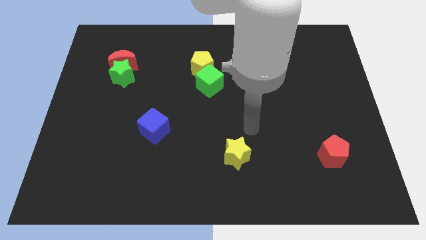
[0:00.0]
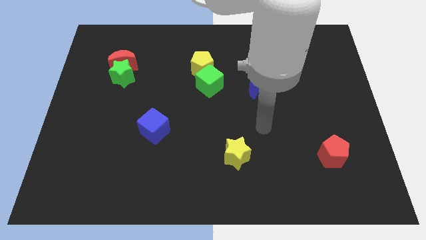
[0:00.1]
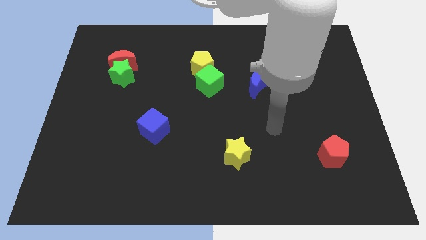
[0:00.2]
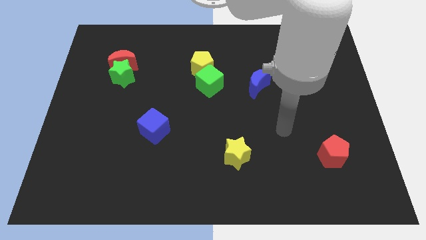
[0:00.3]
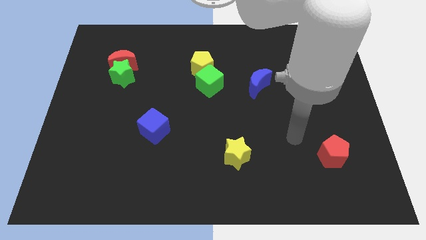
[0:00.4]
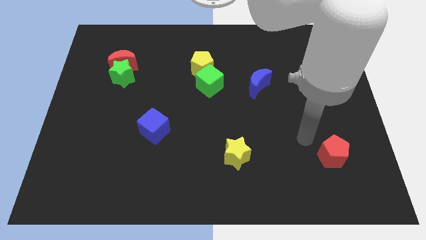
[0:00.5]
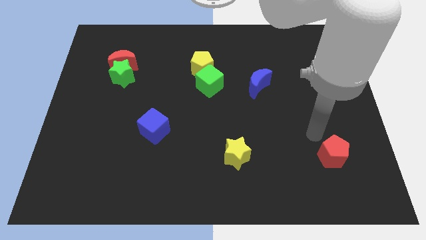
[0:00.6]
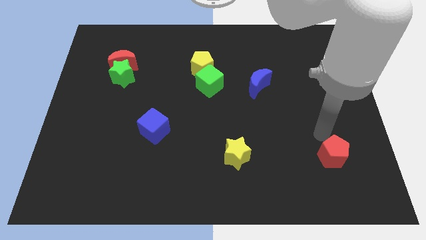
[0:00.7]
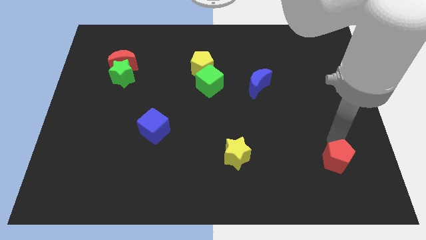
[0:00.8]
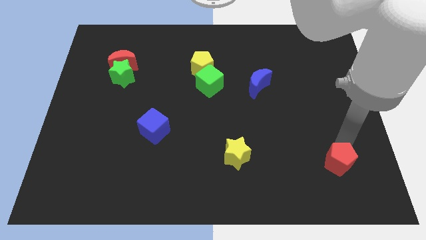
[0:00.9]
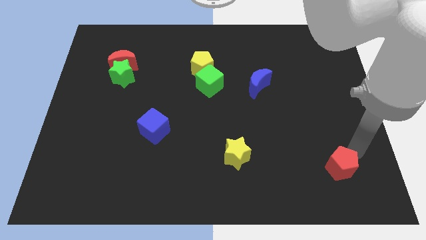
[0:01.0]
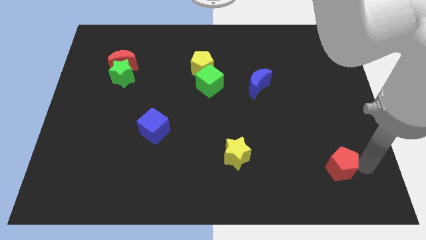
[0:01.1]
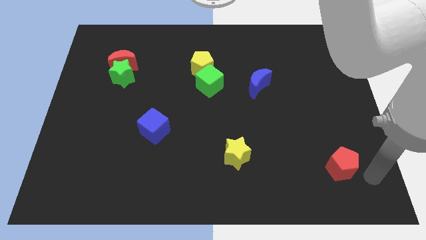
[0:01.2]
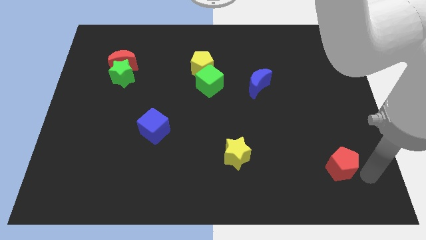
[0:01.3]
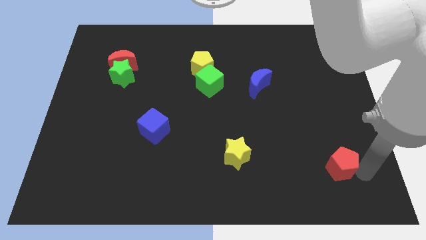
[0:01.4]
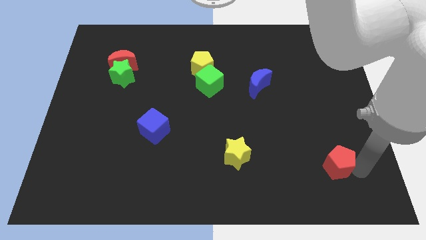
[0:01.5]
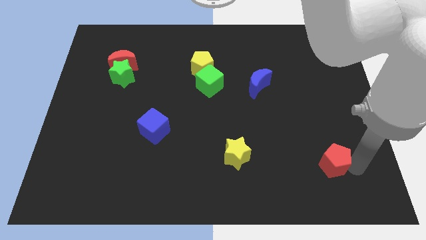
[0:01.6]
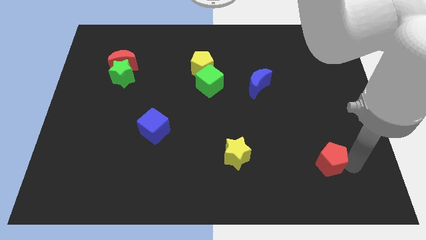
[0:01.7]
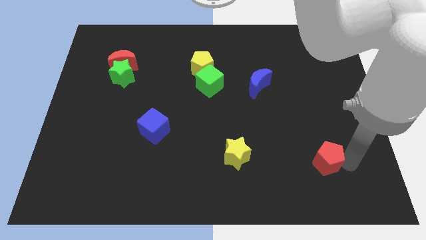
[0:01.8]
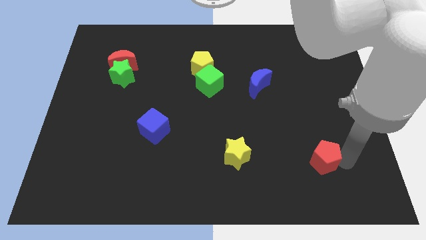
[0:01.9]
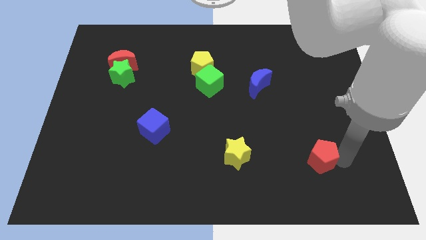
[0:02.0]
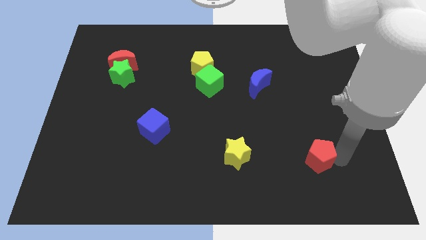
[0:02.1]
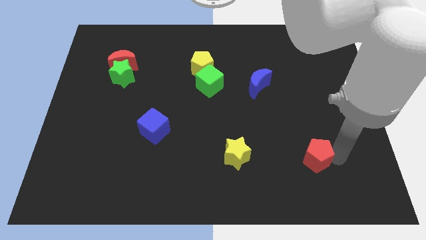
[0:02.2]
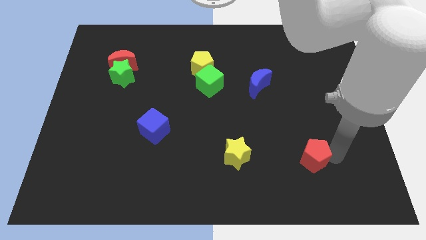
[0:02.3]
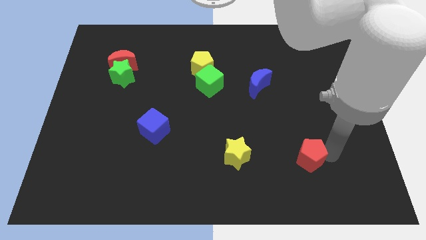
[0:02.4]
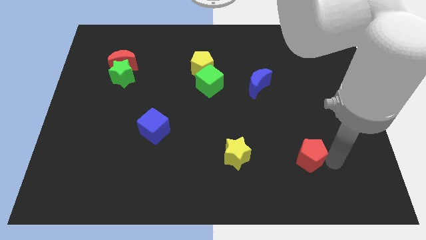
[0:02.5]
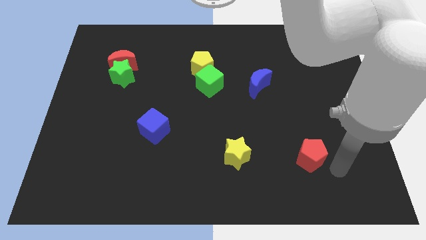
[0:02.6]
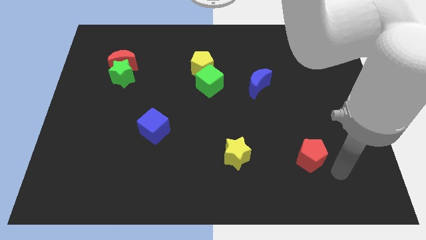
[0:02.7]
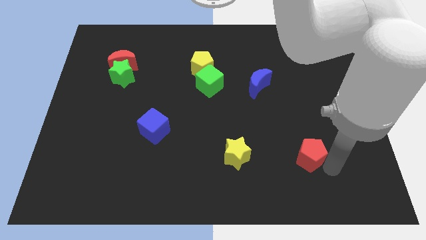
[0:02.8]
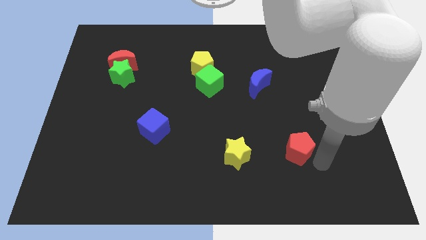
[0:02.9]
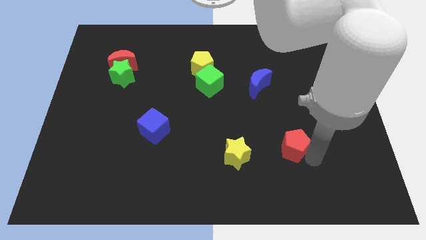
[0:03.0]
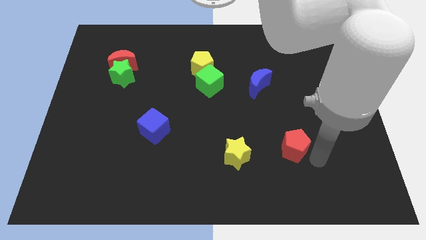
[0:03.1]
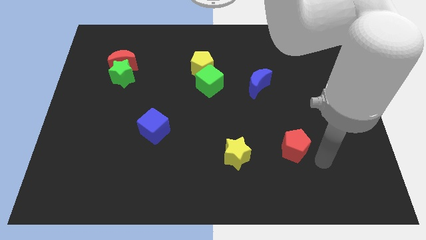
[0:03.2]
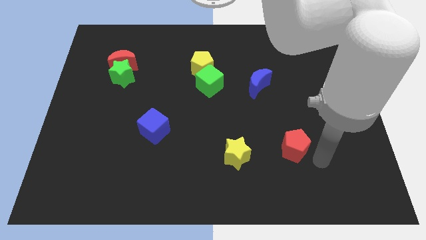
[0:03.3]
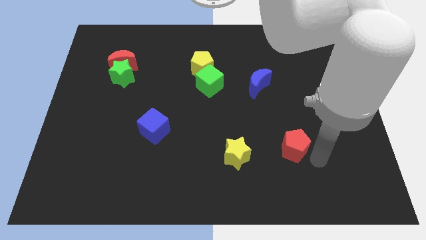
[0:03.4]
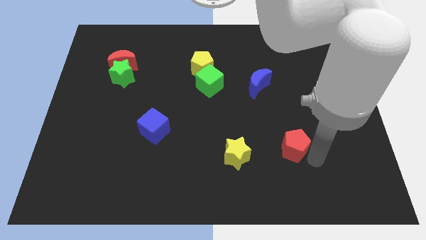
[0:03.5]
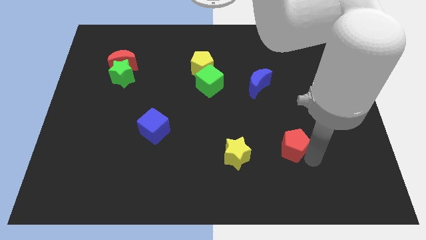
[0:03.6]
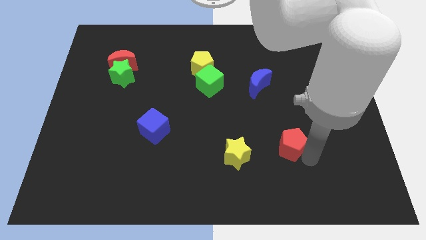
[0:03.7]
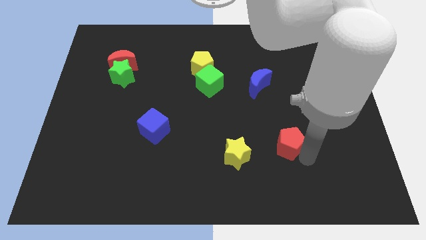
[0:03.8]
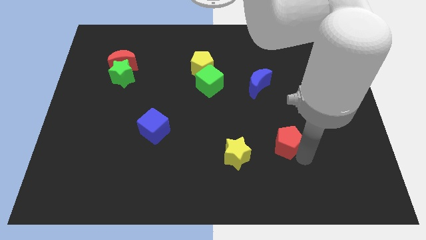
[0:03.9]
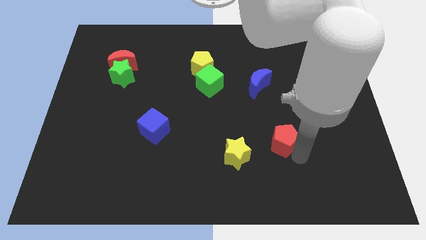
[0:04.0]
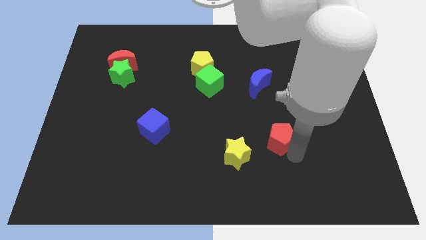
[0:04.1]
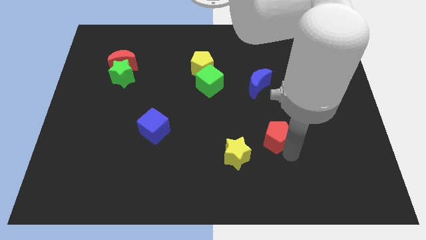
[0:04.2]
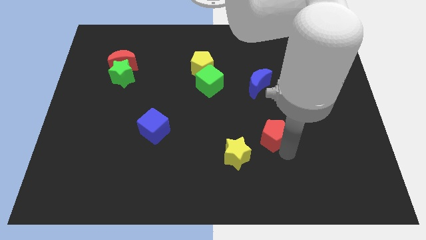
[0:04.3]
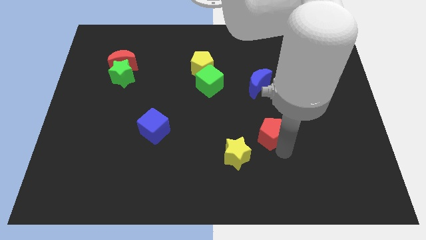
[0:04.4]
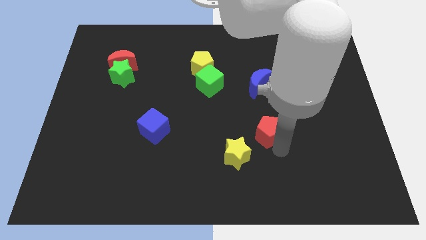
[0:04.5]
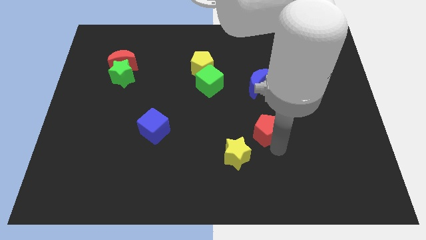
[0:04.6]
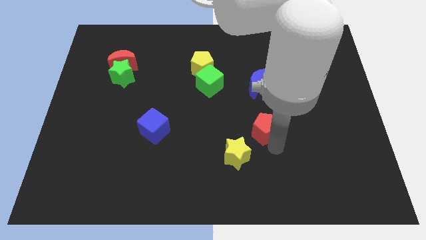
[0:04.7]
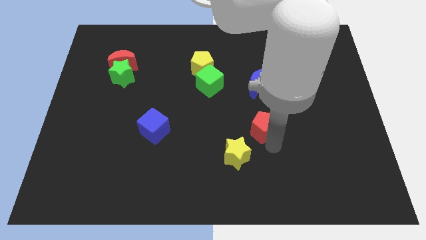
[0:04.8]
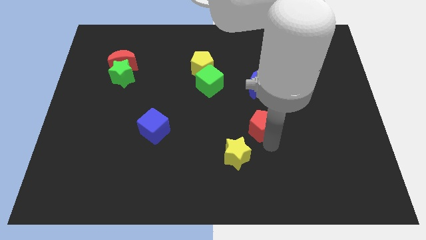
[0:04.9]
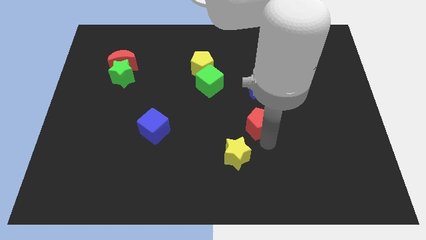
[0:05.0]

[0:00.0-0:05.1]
put the red pentagon to the center

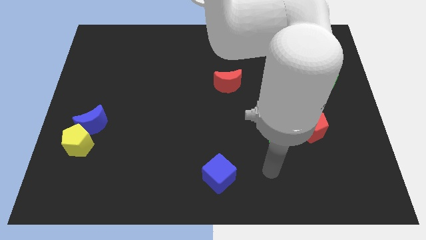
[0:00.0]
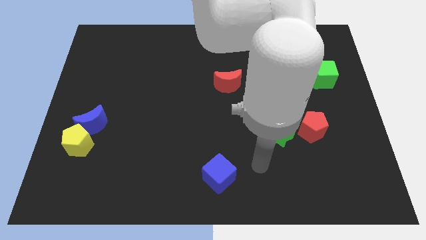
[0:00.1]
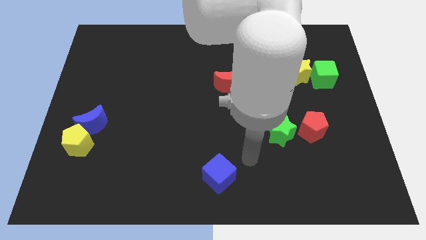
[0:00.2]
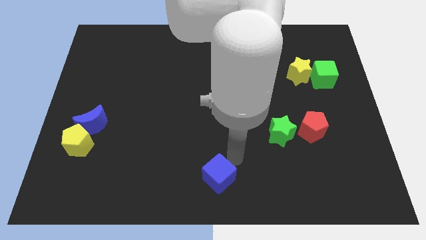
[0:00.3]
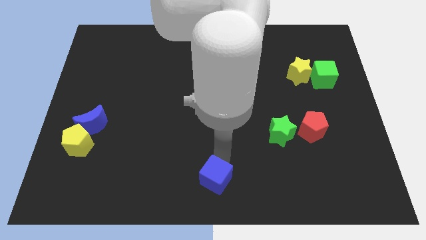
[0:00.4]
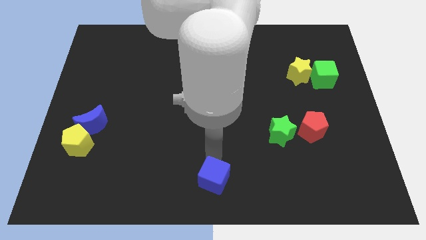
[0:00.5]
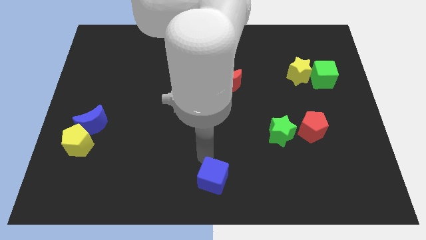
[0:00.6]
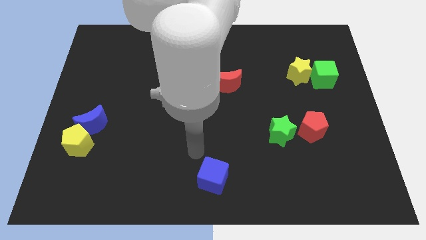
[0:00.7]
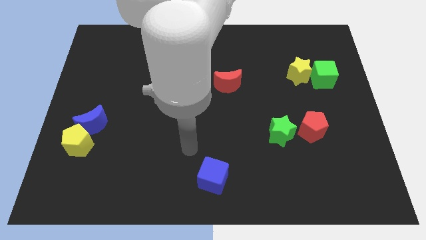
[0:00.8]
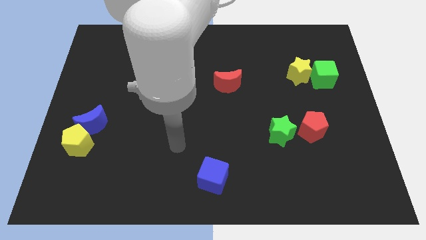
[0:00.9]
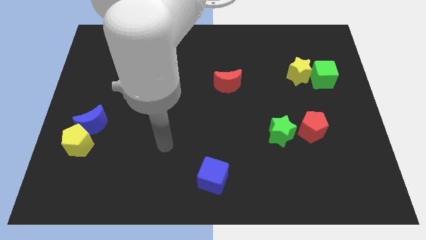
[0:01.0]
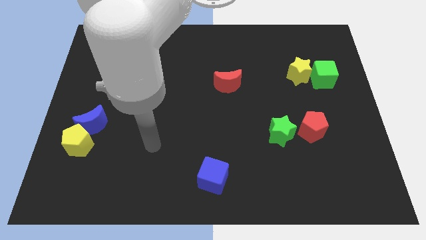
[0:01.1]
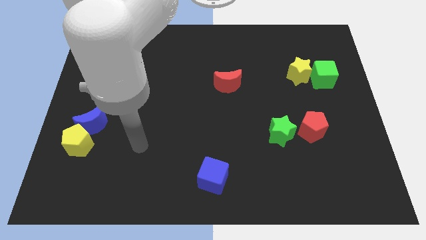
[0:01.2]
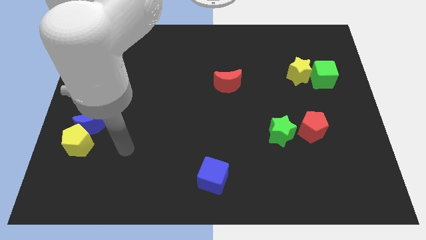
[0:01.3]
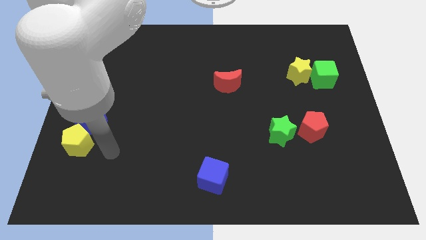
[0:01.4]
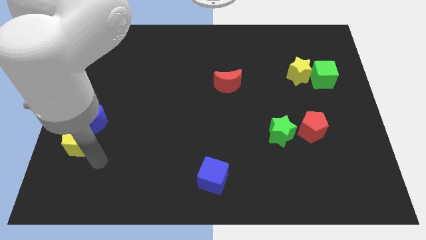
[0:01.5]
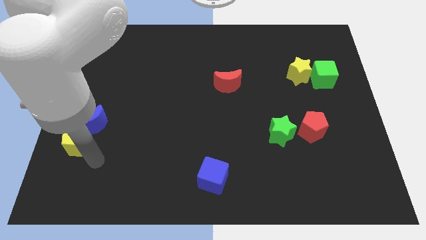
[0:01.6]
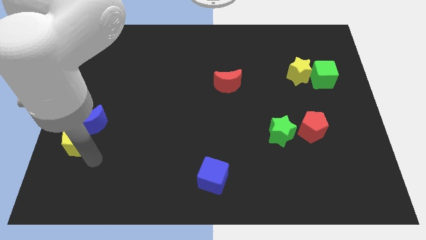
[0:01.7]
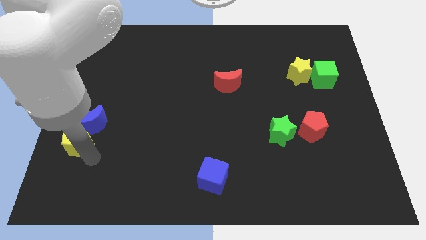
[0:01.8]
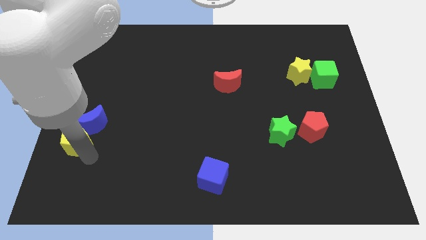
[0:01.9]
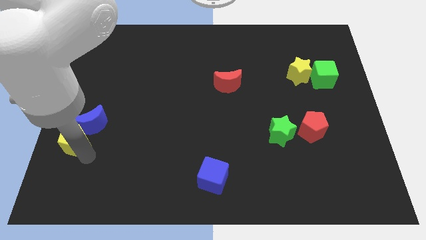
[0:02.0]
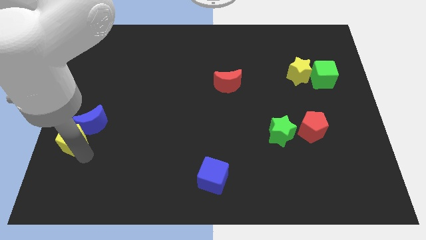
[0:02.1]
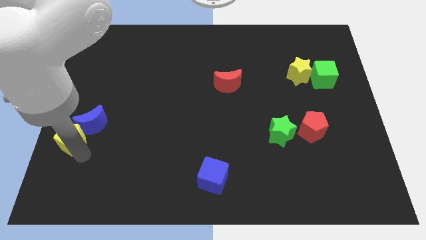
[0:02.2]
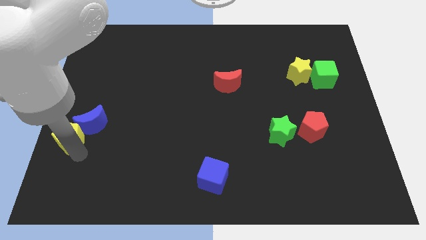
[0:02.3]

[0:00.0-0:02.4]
put the yellow pentagon to the left side
